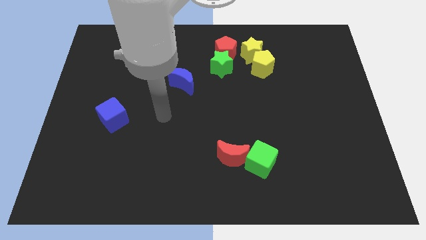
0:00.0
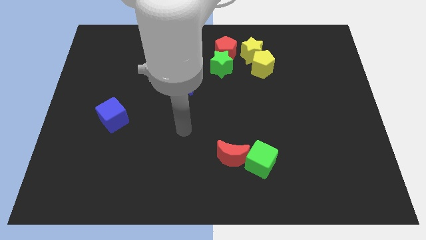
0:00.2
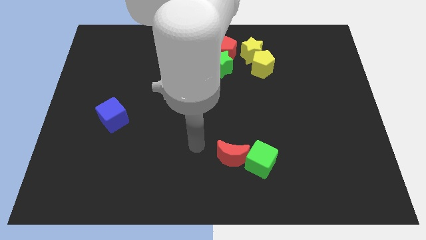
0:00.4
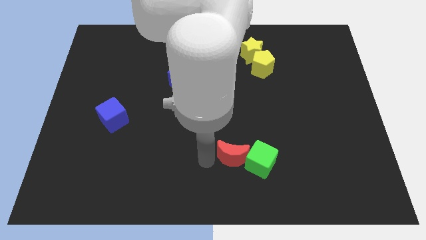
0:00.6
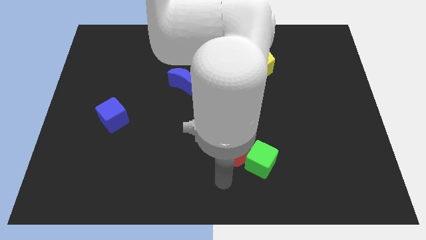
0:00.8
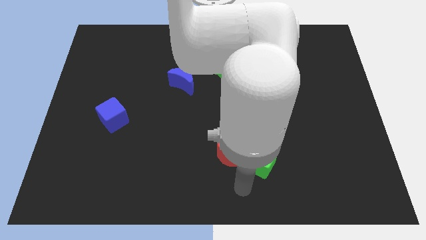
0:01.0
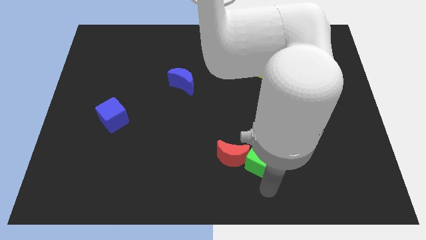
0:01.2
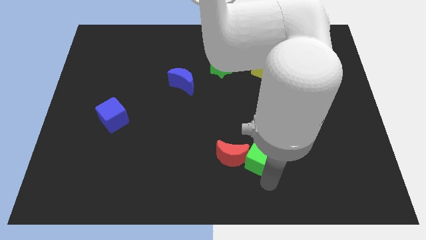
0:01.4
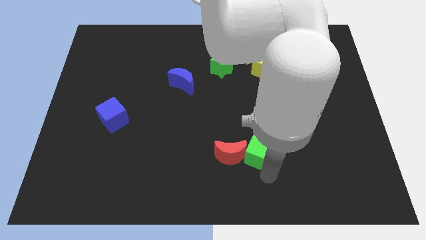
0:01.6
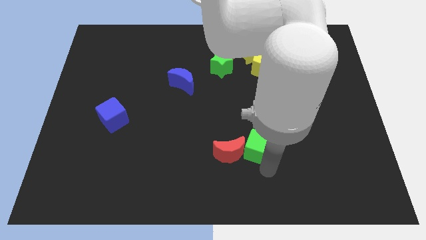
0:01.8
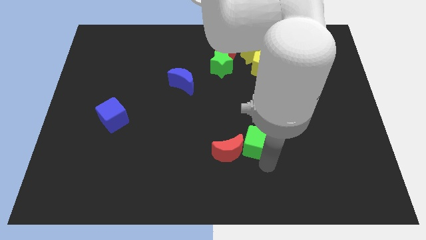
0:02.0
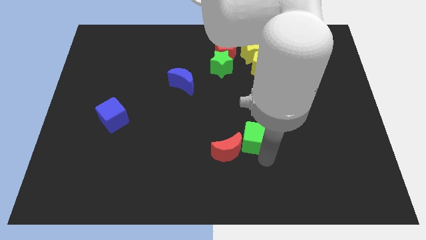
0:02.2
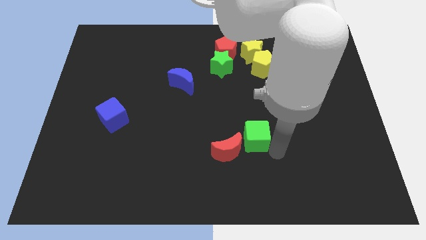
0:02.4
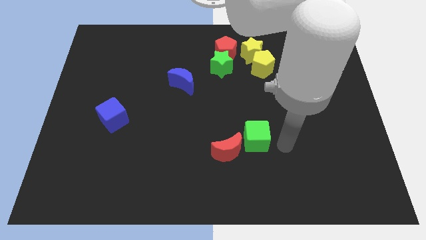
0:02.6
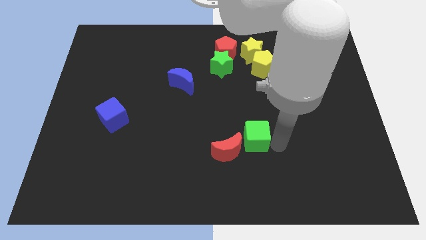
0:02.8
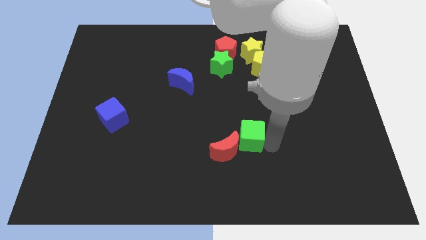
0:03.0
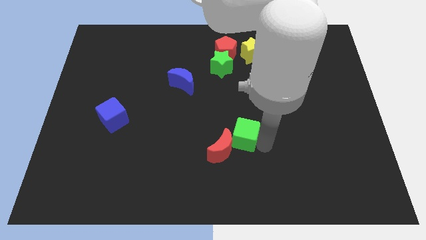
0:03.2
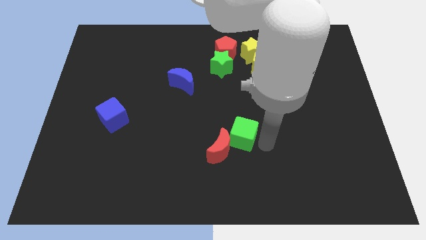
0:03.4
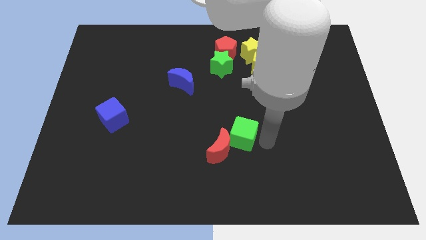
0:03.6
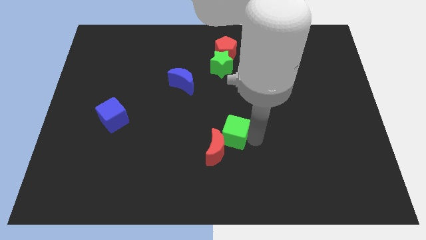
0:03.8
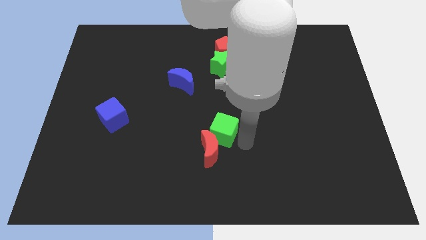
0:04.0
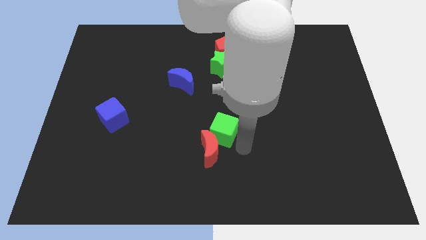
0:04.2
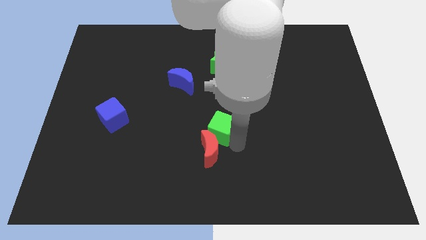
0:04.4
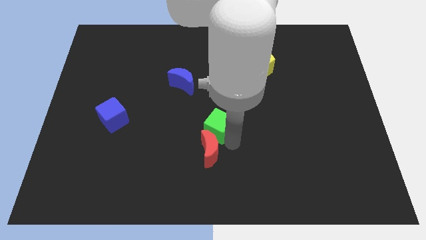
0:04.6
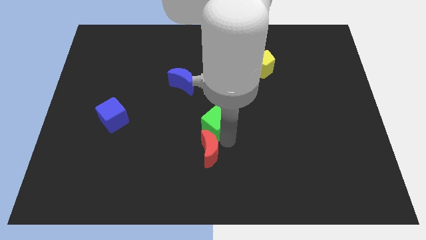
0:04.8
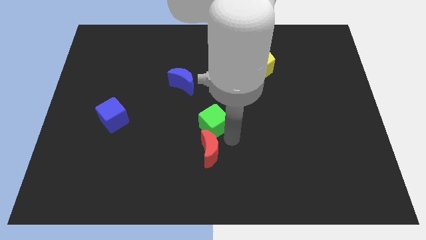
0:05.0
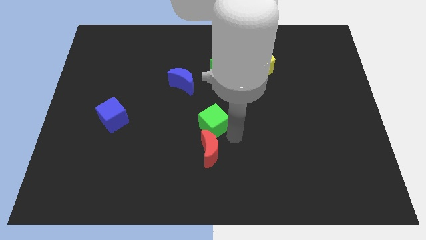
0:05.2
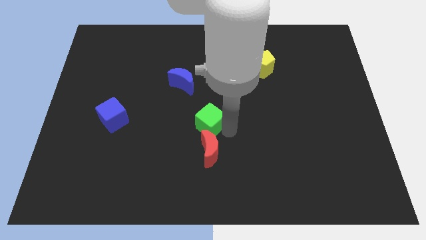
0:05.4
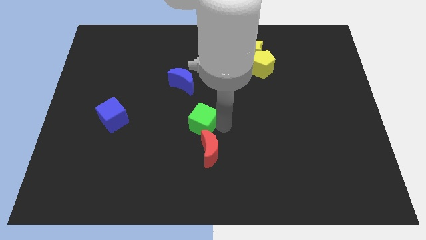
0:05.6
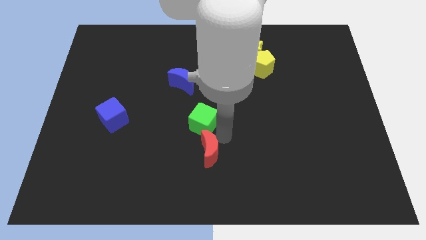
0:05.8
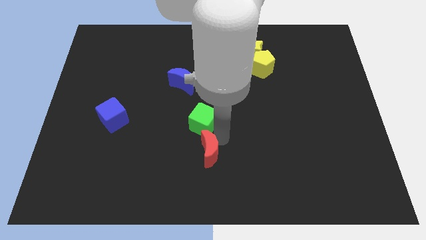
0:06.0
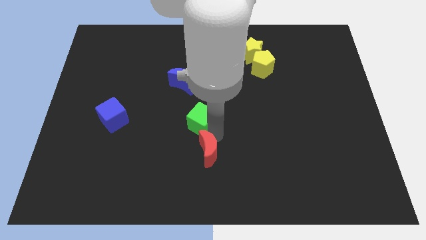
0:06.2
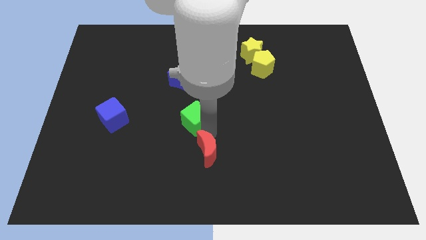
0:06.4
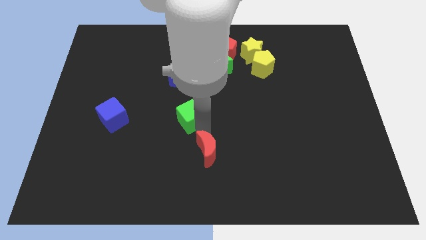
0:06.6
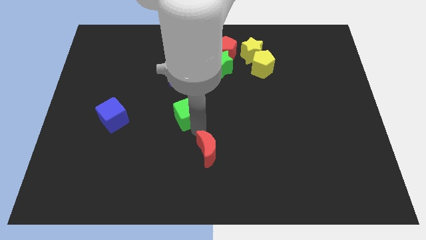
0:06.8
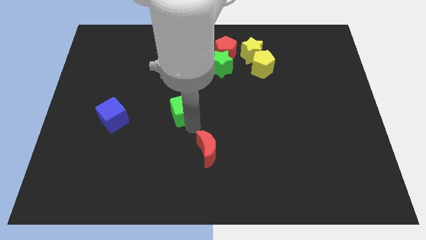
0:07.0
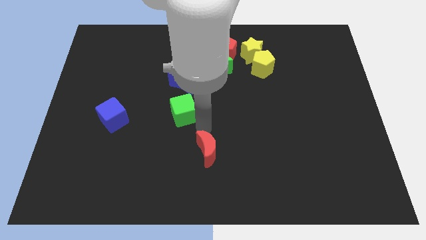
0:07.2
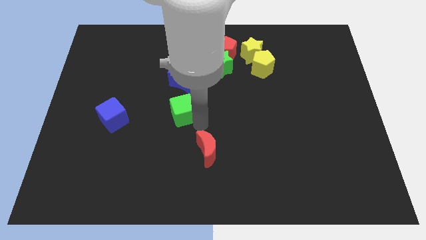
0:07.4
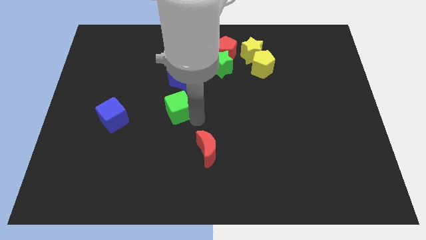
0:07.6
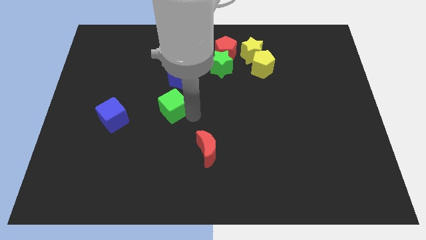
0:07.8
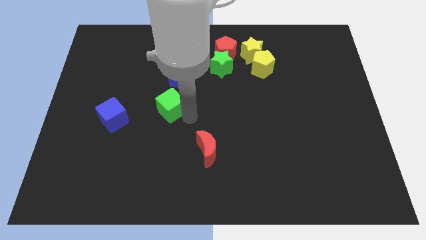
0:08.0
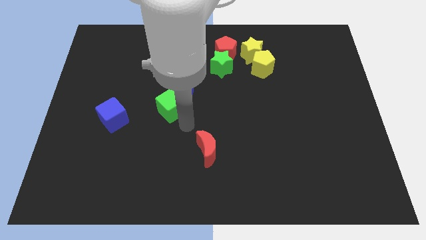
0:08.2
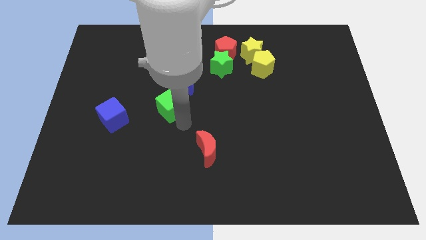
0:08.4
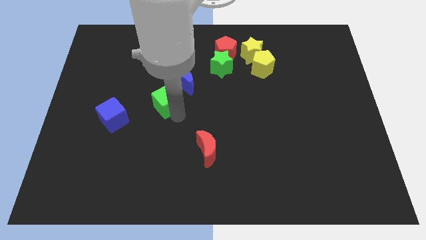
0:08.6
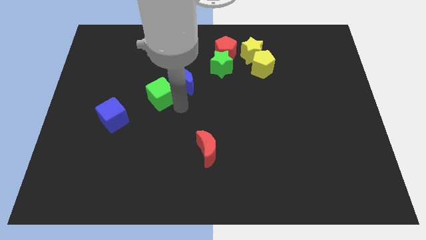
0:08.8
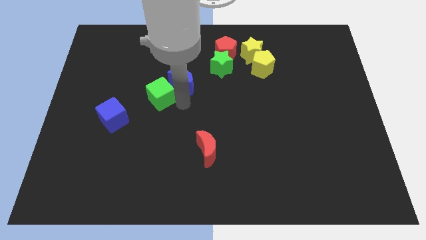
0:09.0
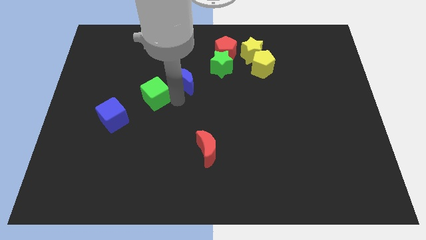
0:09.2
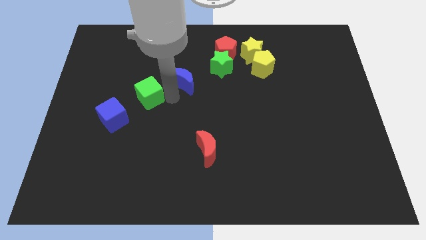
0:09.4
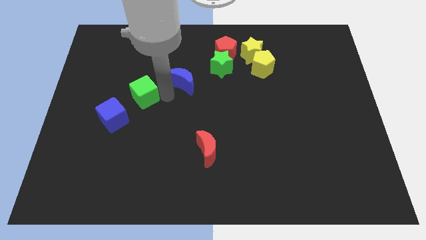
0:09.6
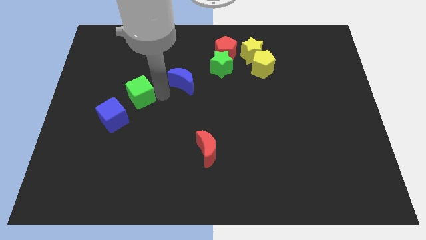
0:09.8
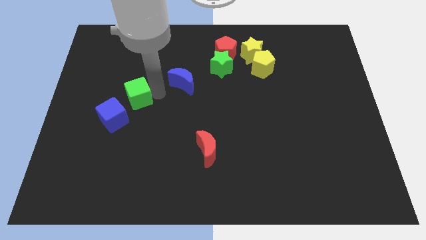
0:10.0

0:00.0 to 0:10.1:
slide the green cube to the top of the blue cube

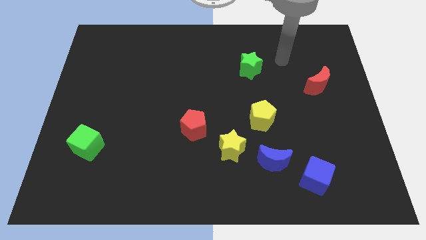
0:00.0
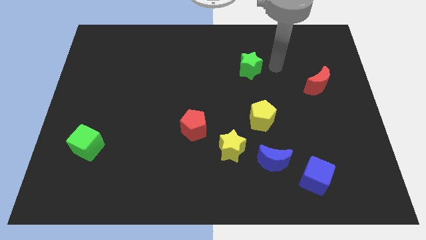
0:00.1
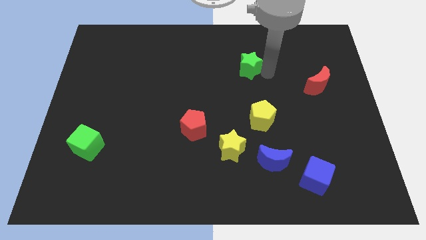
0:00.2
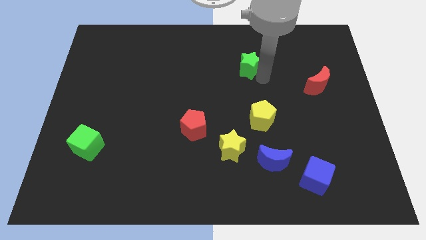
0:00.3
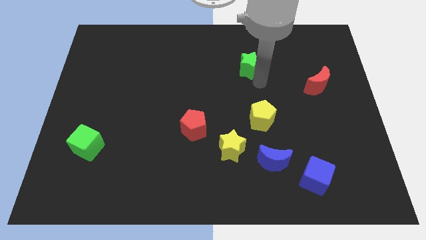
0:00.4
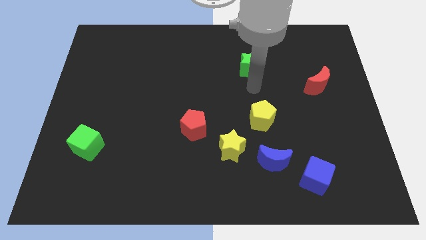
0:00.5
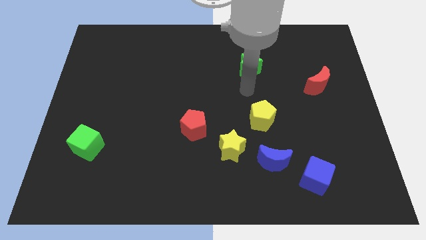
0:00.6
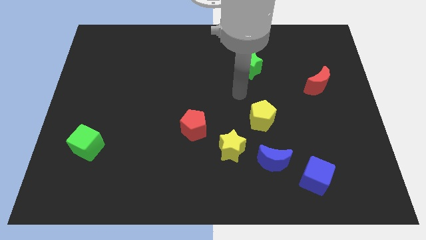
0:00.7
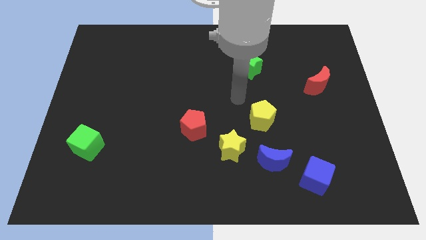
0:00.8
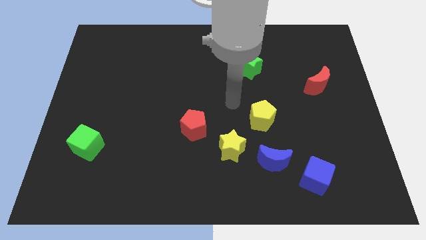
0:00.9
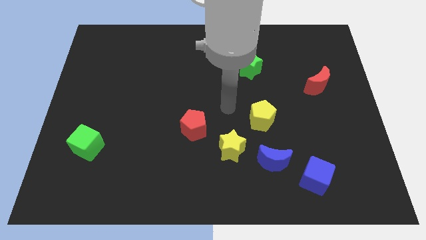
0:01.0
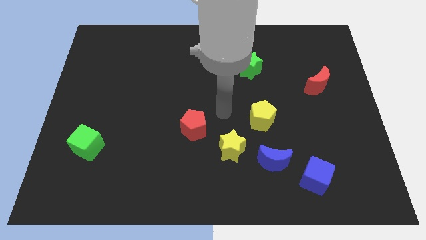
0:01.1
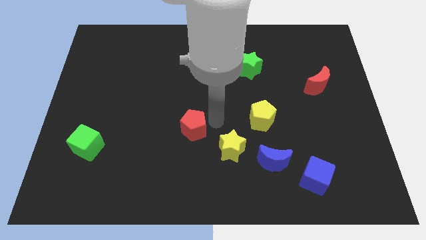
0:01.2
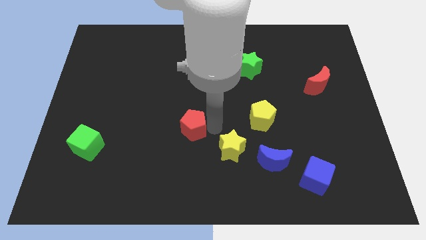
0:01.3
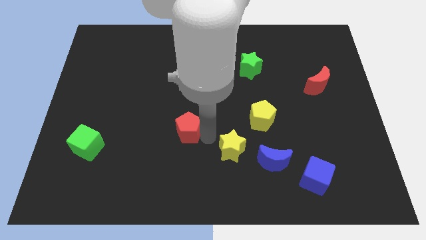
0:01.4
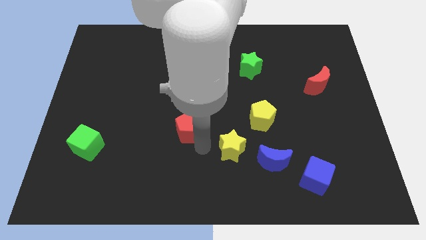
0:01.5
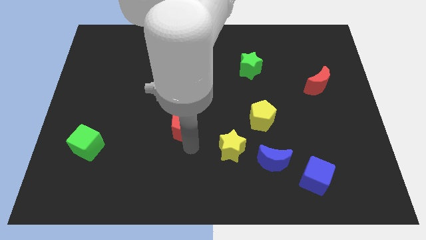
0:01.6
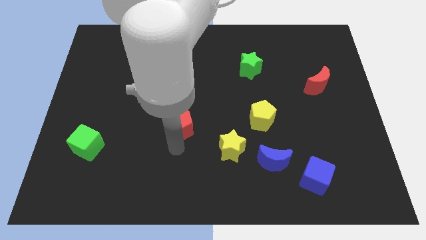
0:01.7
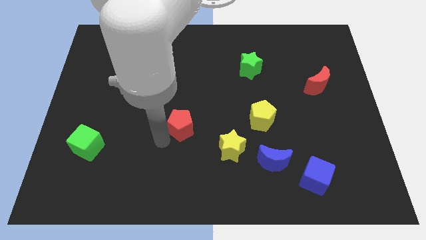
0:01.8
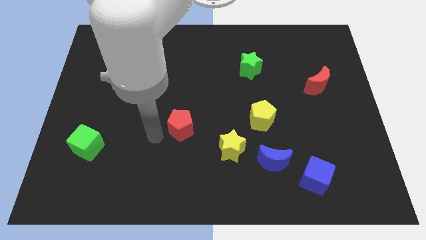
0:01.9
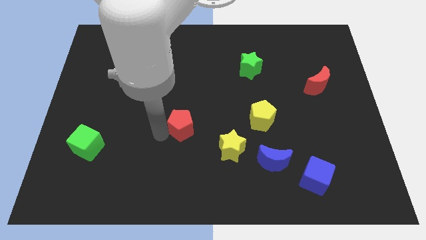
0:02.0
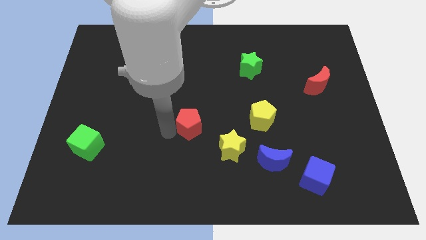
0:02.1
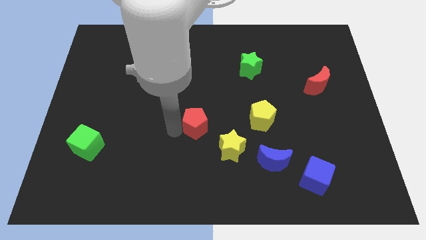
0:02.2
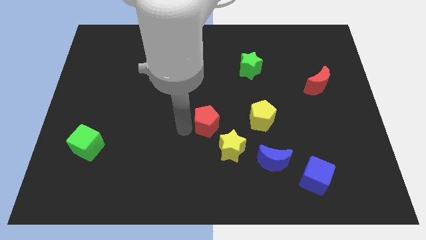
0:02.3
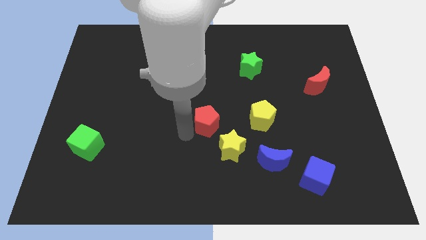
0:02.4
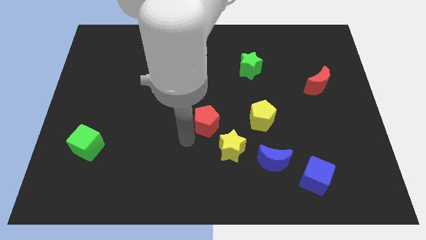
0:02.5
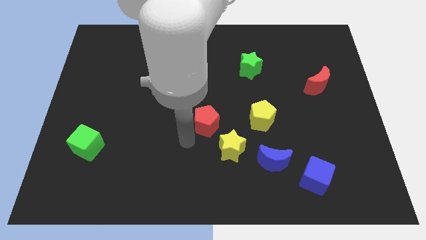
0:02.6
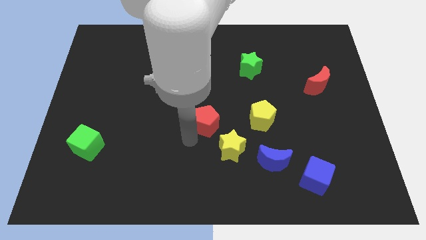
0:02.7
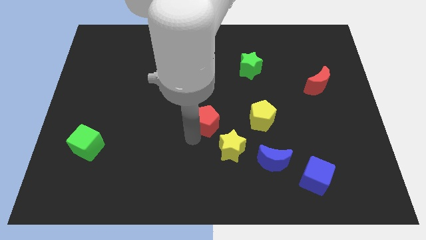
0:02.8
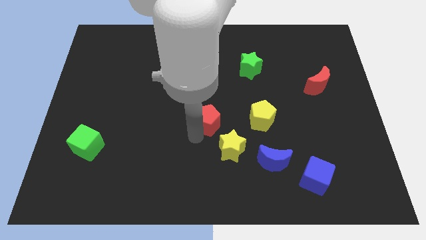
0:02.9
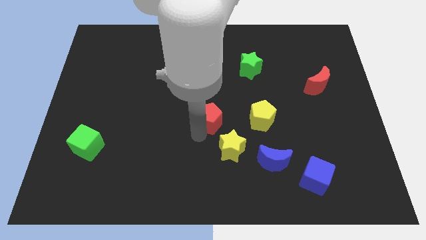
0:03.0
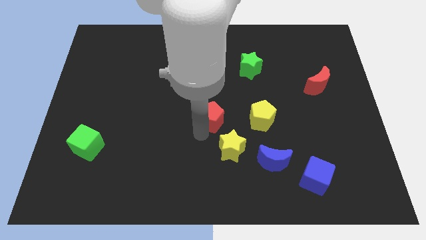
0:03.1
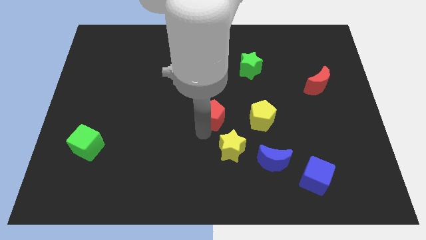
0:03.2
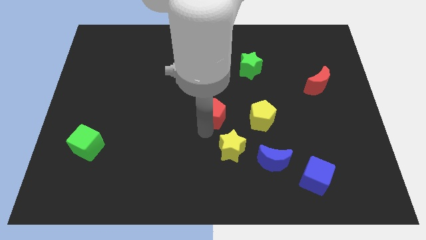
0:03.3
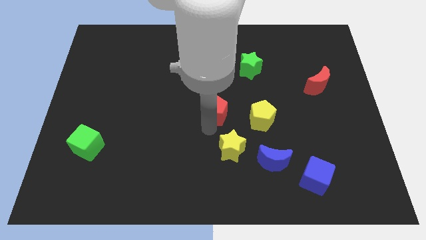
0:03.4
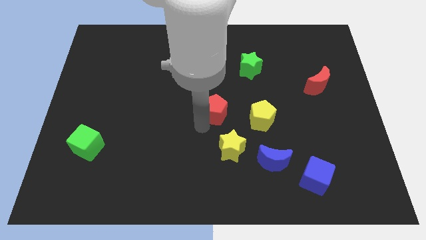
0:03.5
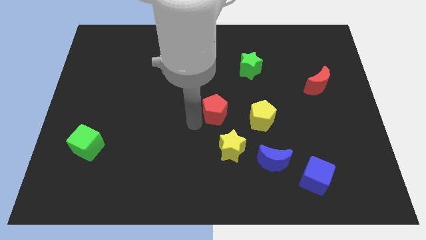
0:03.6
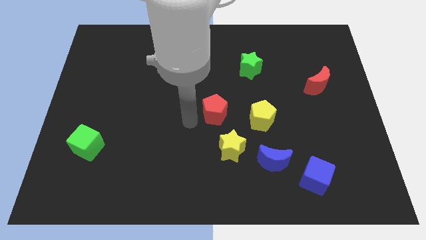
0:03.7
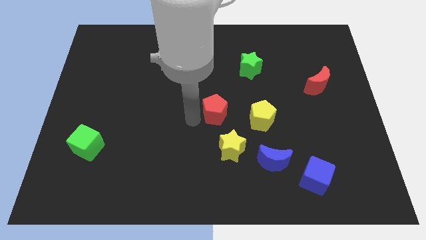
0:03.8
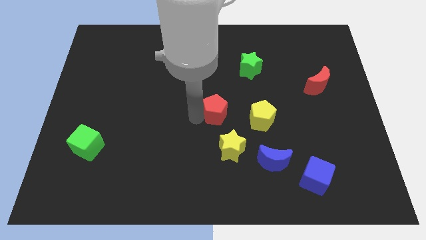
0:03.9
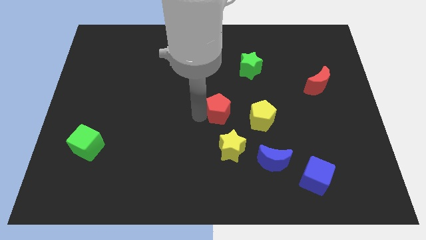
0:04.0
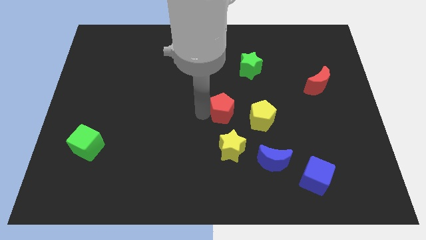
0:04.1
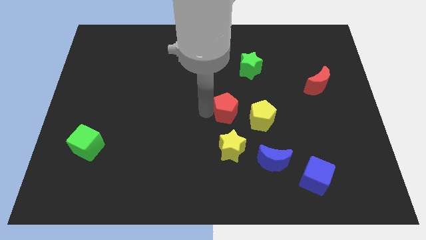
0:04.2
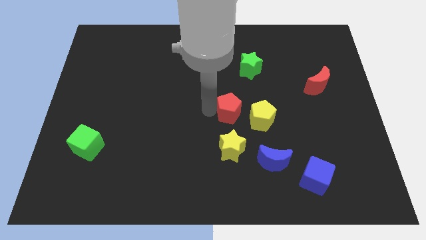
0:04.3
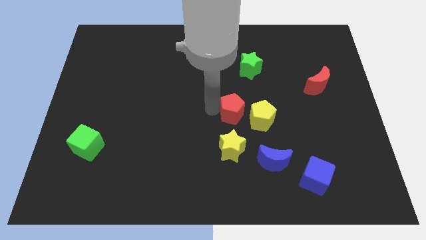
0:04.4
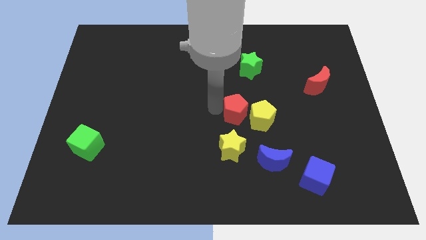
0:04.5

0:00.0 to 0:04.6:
push the red pentagon to the bottom of the green star
